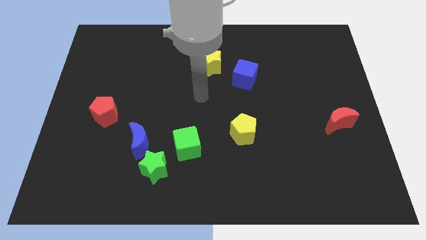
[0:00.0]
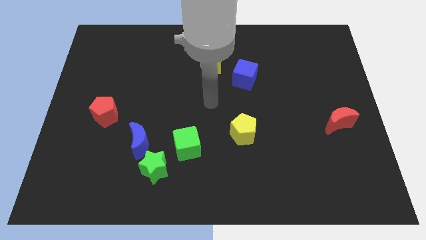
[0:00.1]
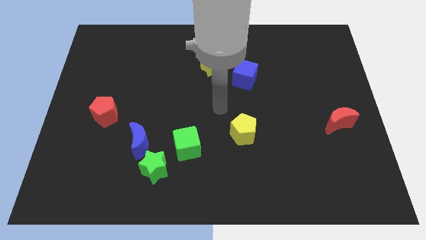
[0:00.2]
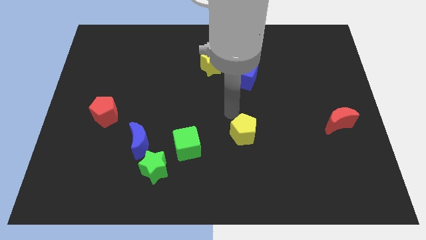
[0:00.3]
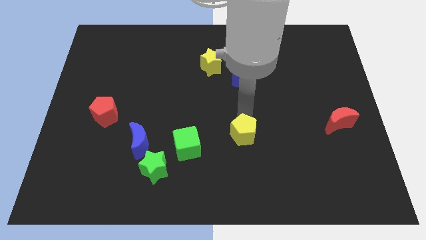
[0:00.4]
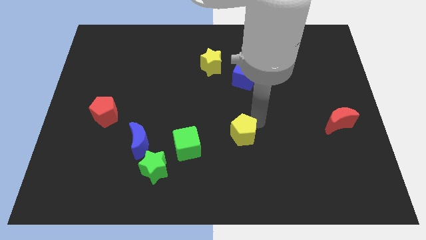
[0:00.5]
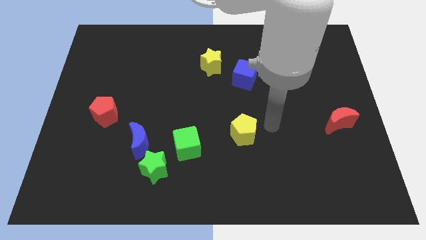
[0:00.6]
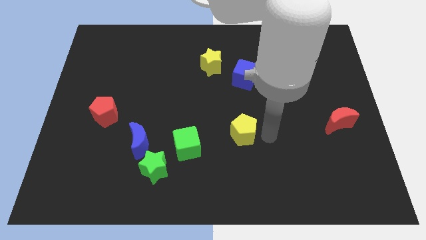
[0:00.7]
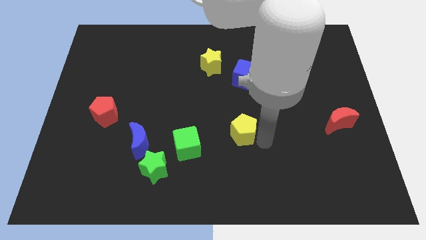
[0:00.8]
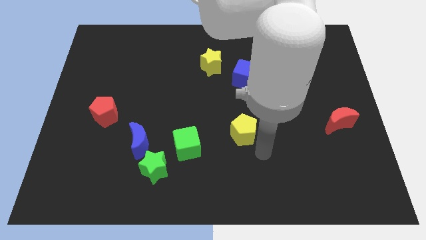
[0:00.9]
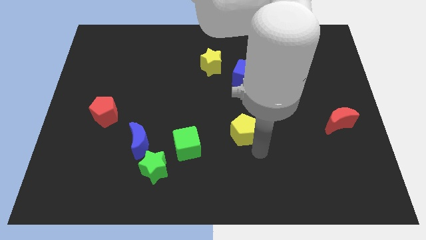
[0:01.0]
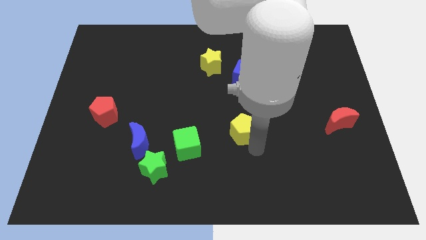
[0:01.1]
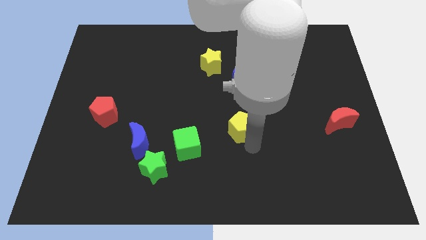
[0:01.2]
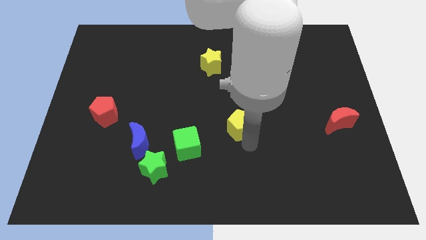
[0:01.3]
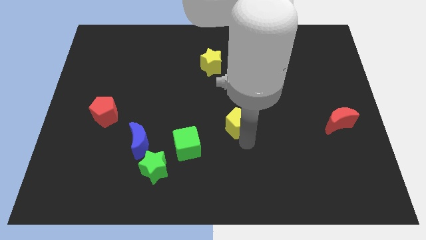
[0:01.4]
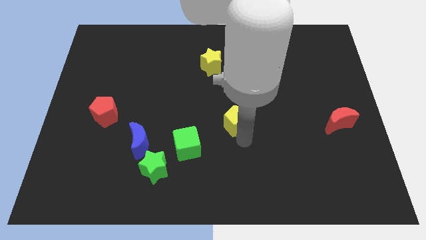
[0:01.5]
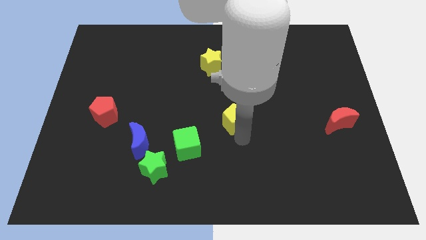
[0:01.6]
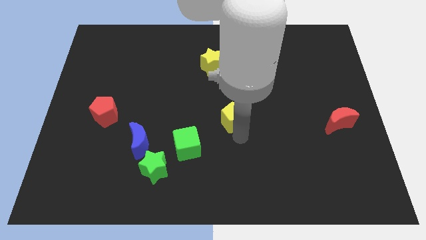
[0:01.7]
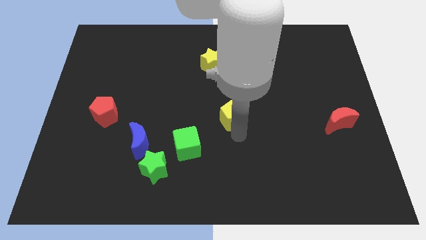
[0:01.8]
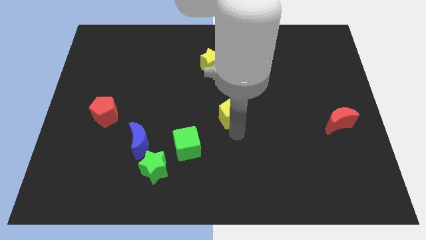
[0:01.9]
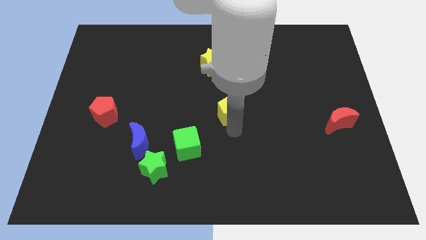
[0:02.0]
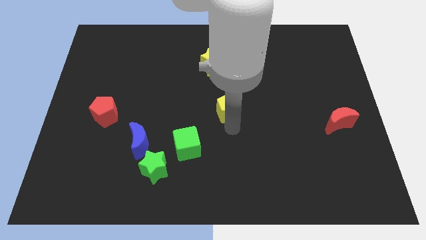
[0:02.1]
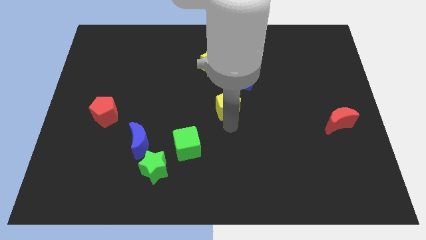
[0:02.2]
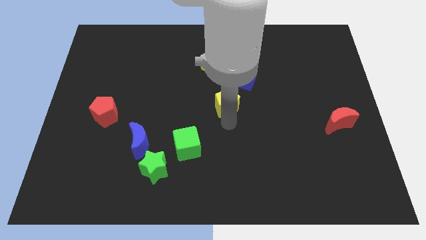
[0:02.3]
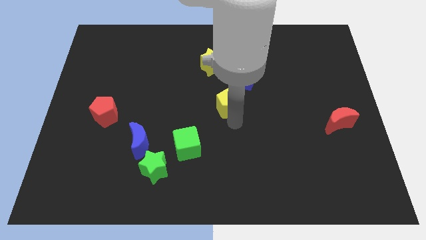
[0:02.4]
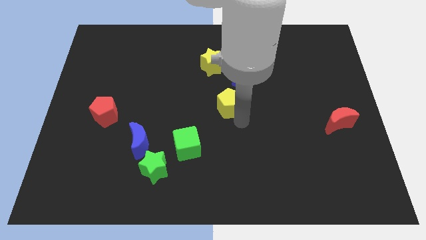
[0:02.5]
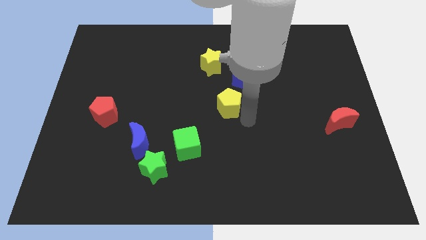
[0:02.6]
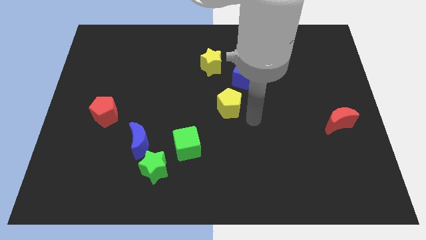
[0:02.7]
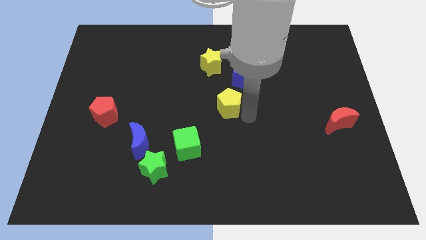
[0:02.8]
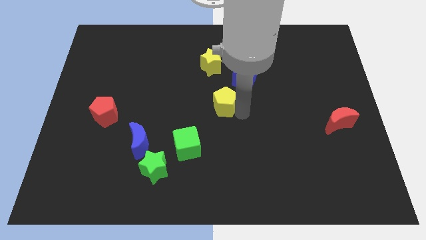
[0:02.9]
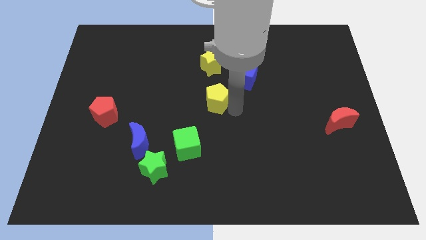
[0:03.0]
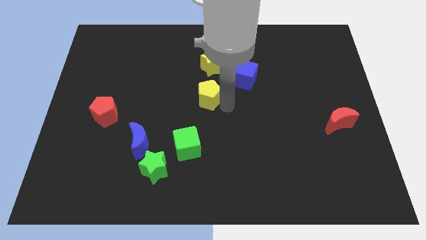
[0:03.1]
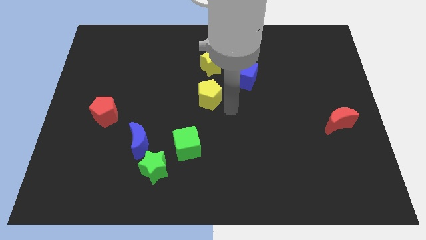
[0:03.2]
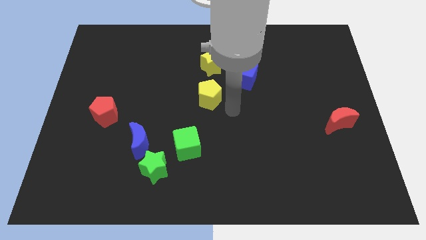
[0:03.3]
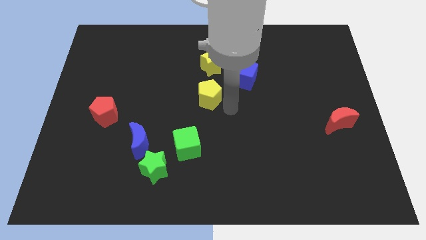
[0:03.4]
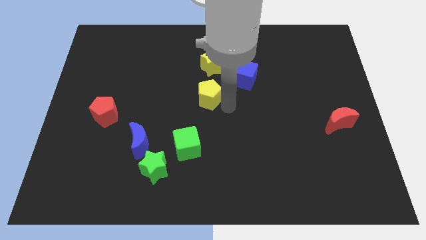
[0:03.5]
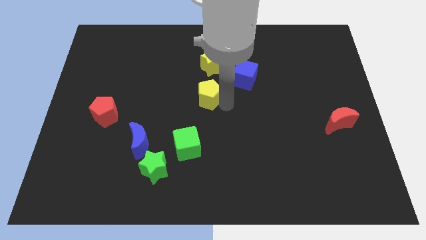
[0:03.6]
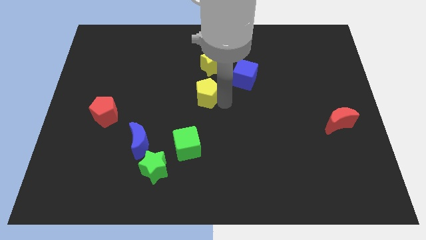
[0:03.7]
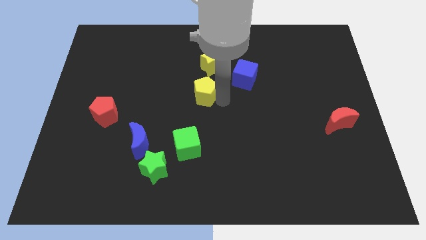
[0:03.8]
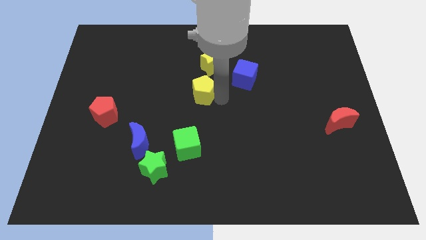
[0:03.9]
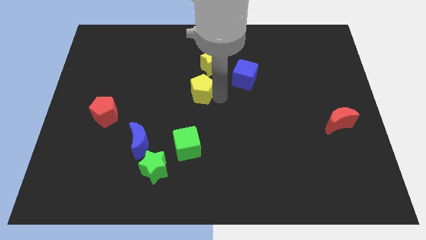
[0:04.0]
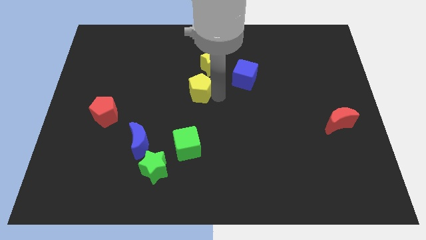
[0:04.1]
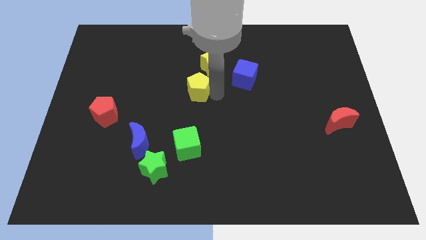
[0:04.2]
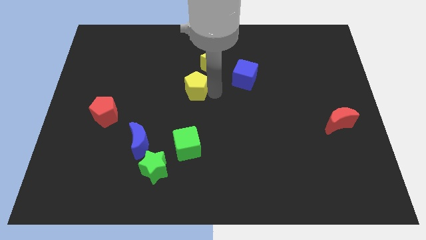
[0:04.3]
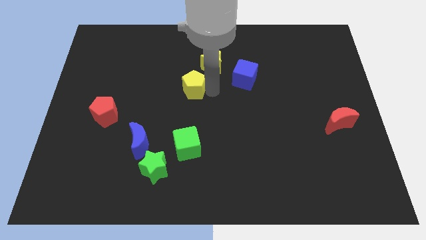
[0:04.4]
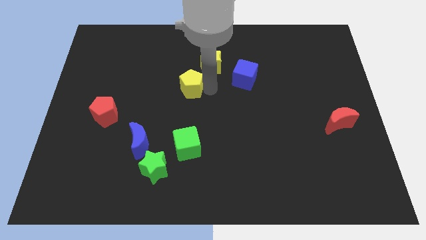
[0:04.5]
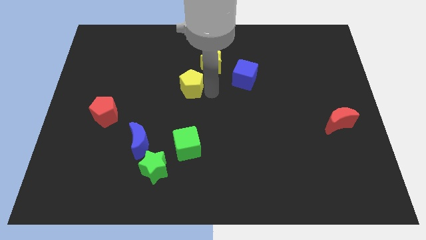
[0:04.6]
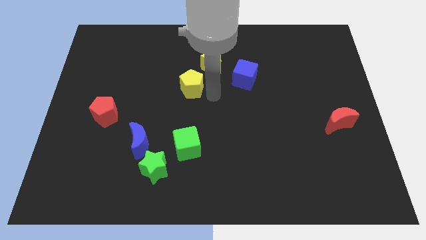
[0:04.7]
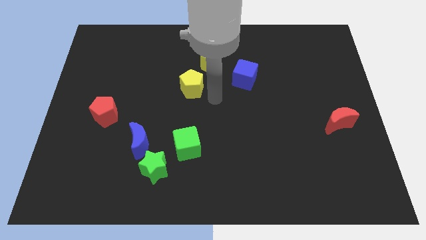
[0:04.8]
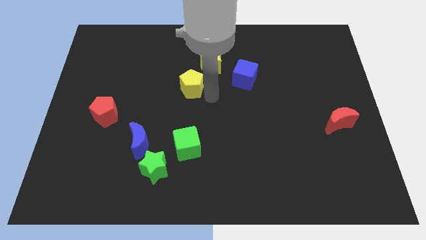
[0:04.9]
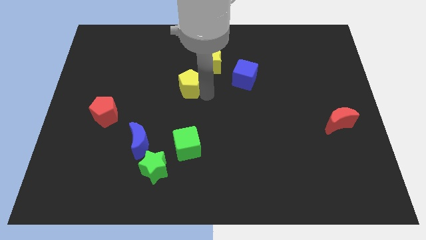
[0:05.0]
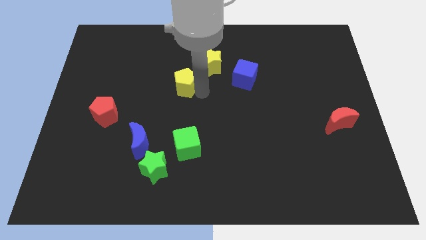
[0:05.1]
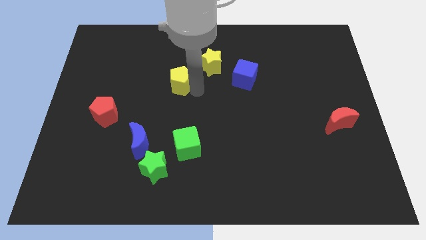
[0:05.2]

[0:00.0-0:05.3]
slide the yellow pentagon upwards and to the left

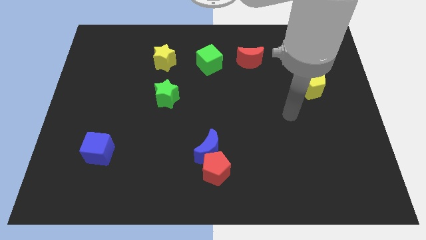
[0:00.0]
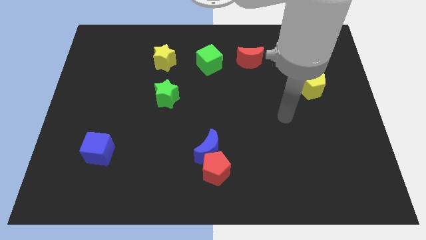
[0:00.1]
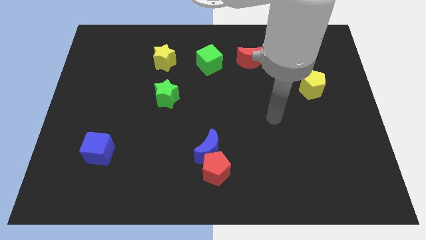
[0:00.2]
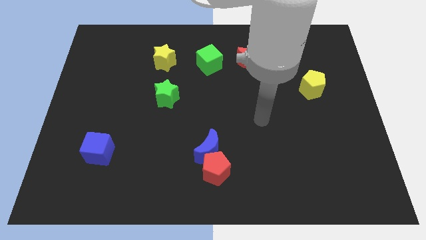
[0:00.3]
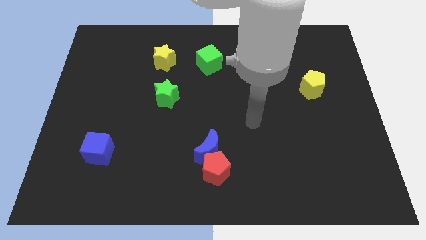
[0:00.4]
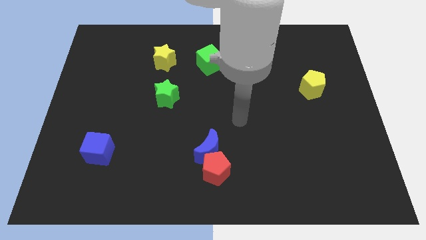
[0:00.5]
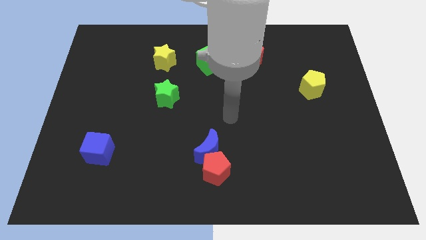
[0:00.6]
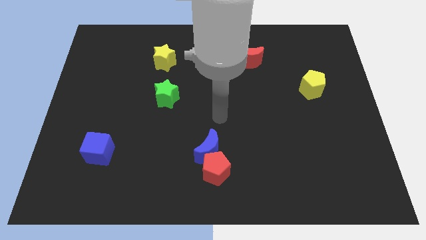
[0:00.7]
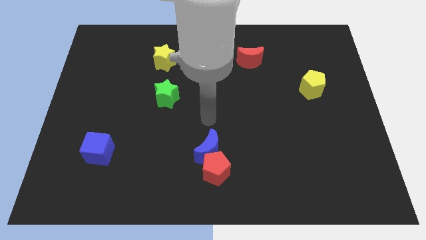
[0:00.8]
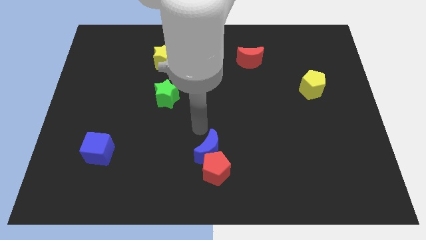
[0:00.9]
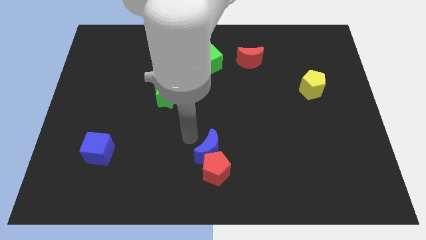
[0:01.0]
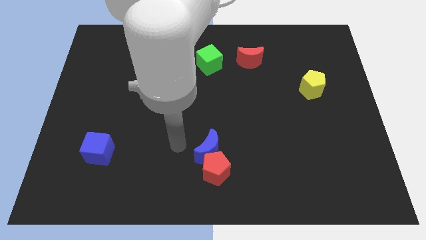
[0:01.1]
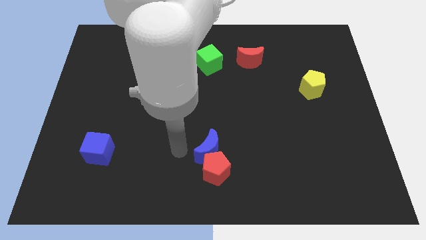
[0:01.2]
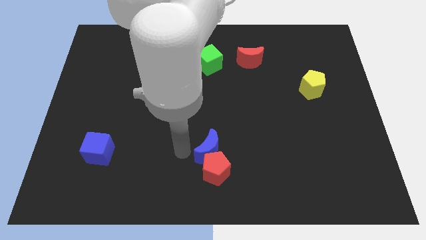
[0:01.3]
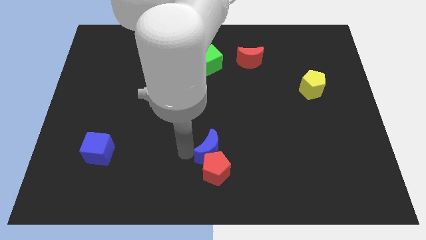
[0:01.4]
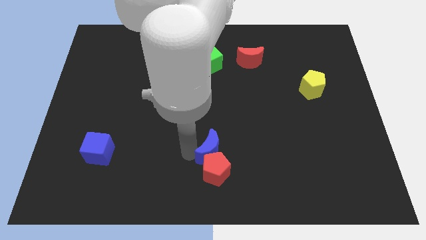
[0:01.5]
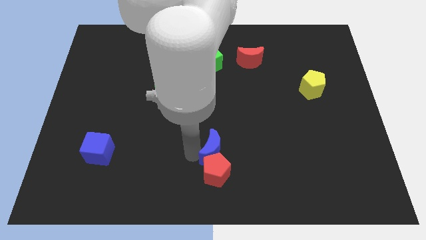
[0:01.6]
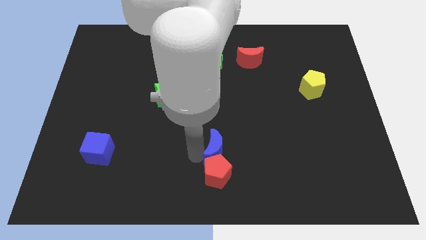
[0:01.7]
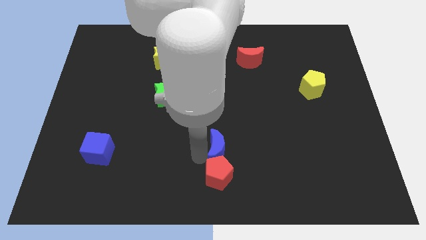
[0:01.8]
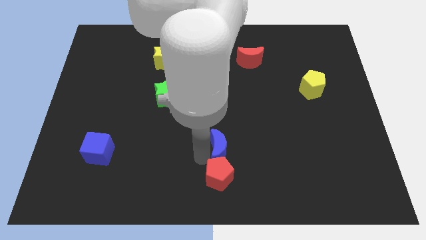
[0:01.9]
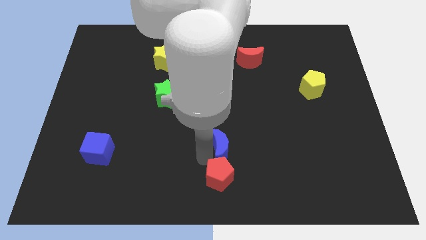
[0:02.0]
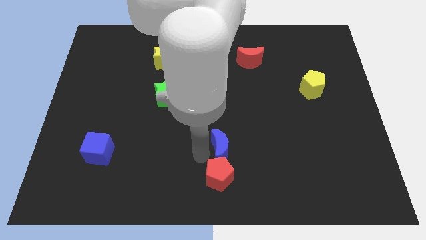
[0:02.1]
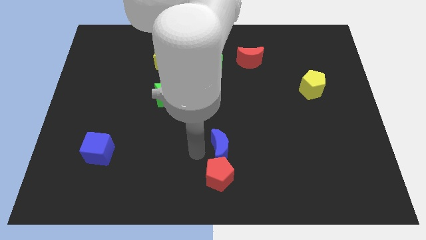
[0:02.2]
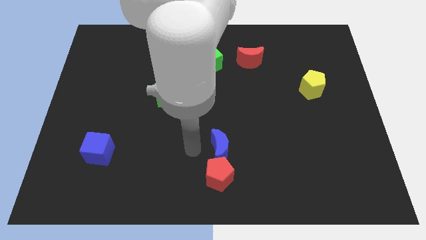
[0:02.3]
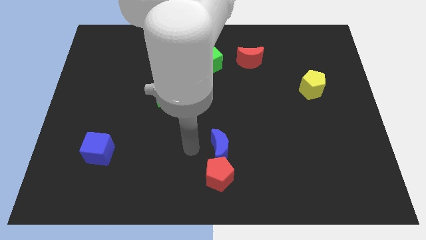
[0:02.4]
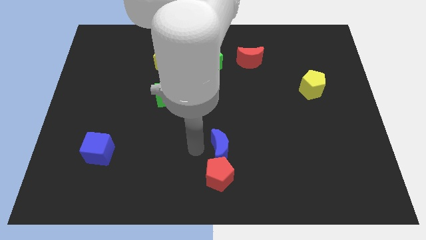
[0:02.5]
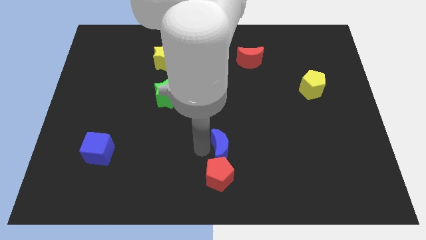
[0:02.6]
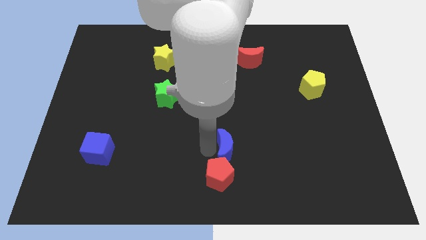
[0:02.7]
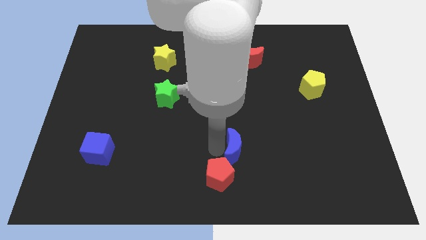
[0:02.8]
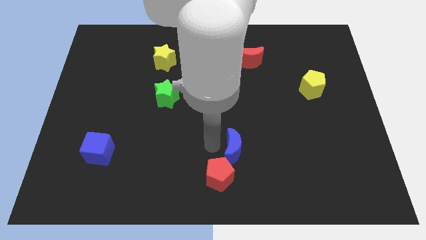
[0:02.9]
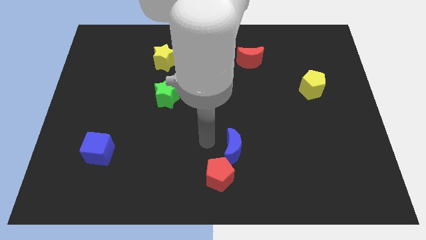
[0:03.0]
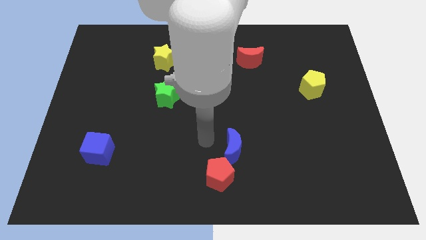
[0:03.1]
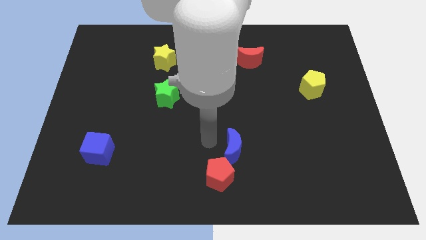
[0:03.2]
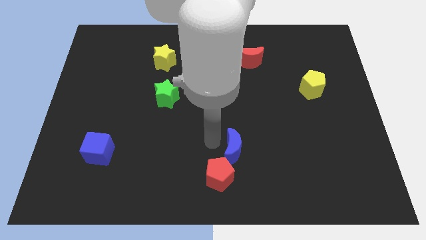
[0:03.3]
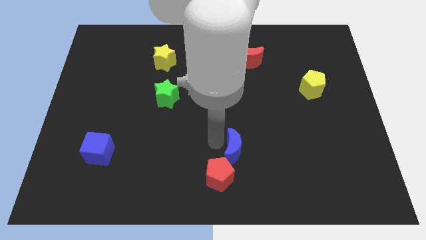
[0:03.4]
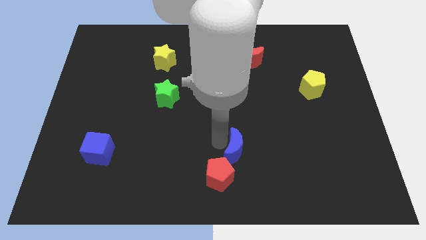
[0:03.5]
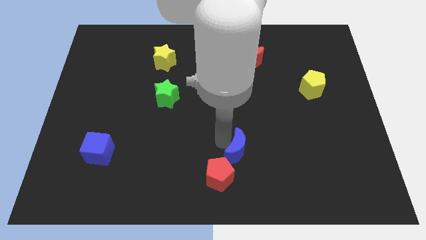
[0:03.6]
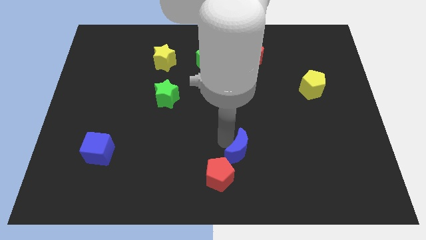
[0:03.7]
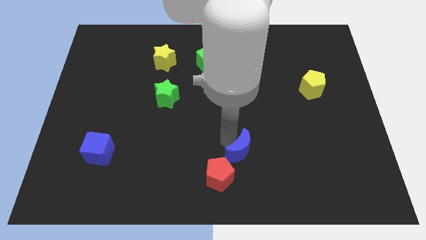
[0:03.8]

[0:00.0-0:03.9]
move the blue moon a little right
